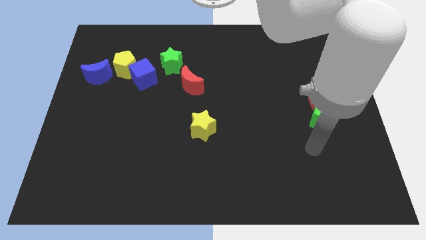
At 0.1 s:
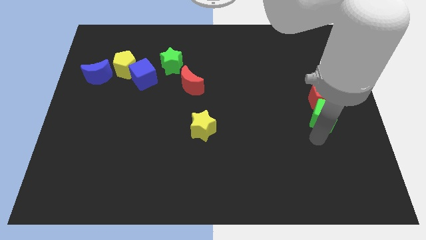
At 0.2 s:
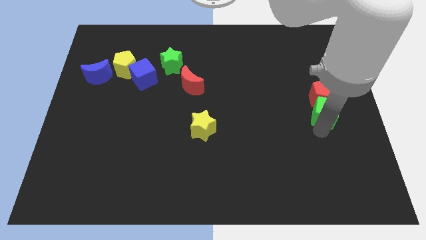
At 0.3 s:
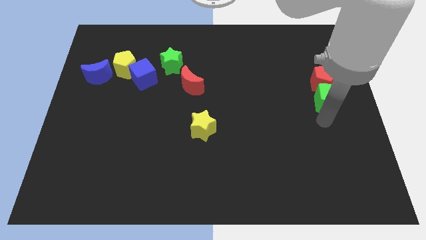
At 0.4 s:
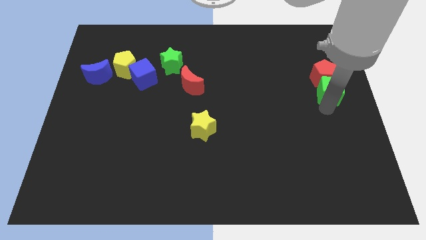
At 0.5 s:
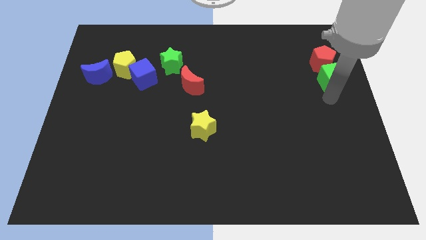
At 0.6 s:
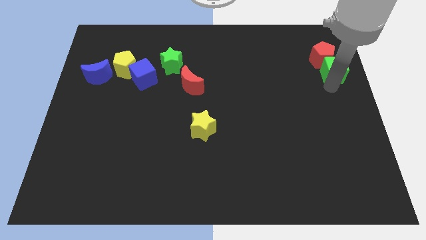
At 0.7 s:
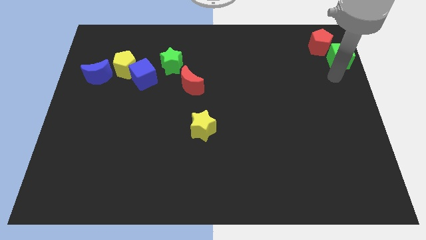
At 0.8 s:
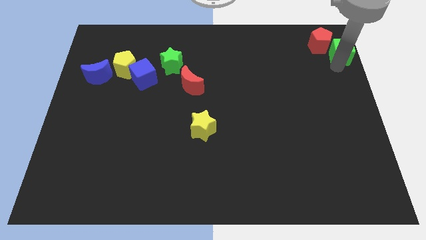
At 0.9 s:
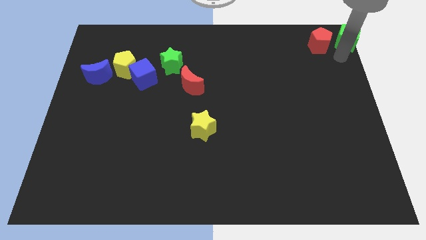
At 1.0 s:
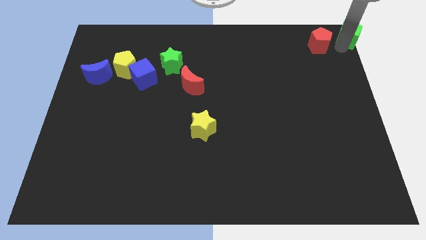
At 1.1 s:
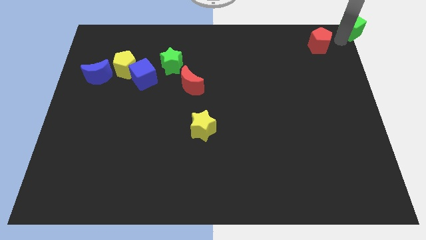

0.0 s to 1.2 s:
move the red pentagon away from the green cube

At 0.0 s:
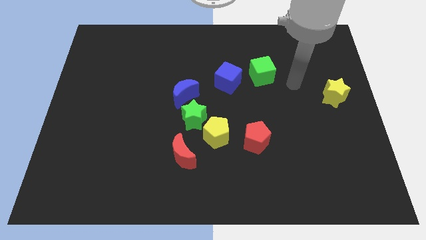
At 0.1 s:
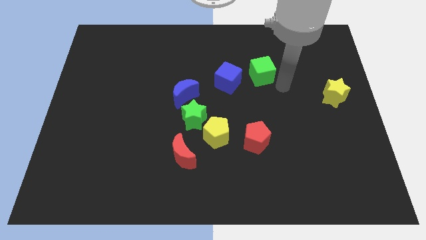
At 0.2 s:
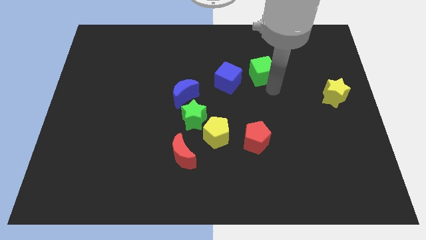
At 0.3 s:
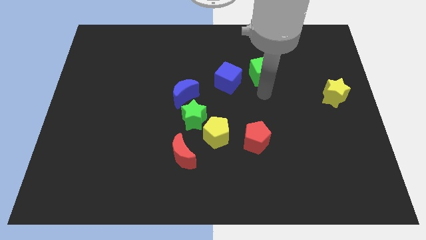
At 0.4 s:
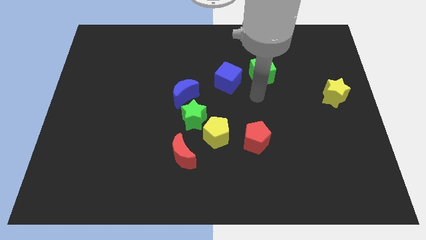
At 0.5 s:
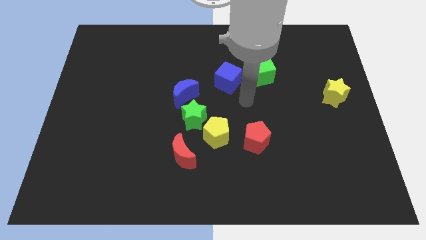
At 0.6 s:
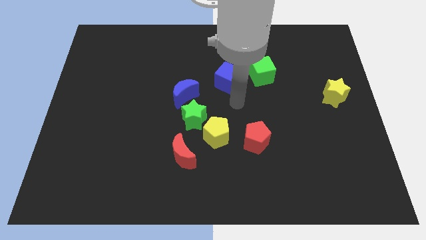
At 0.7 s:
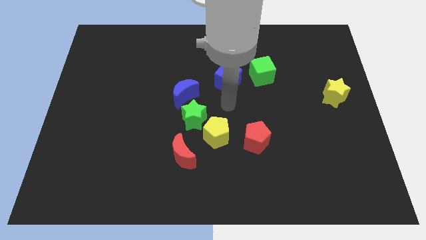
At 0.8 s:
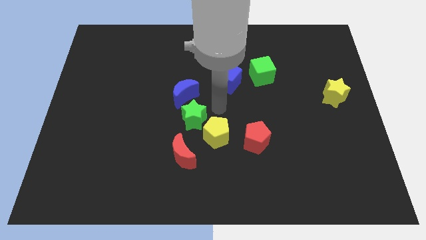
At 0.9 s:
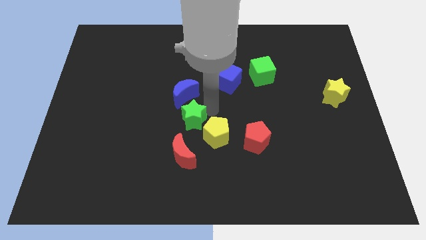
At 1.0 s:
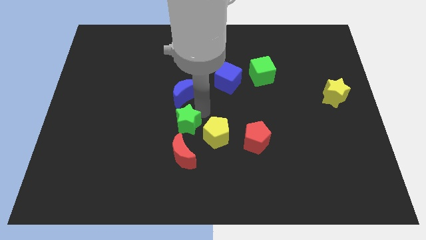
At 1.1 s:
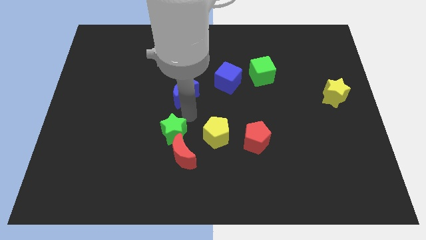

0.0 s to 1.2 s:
separate the blue moon from the green star

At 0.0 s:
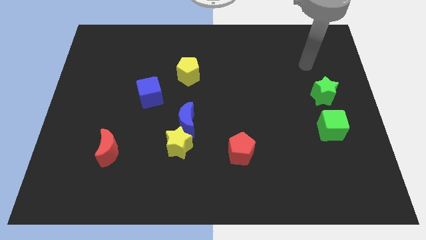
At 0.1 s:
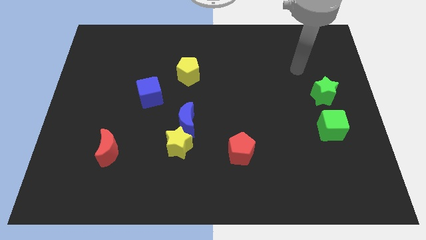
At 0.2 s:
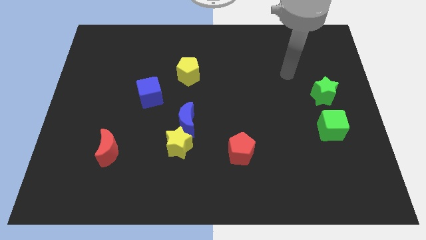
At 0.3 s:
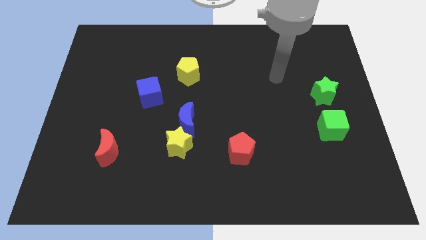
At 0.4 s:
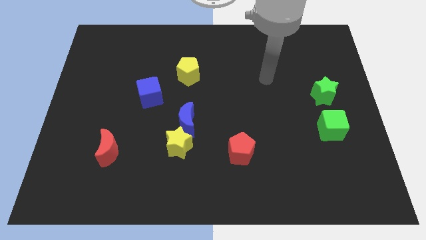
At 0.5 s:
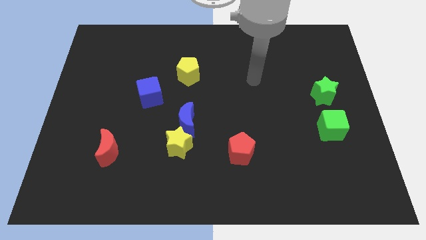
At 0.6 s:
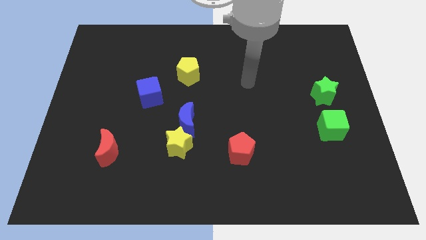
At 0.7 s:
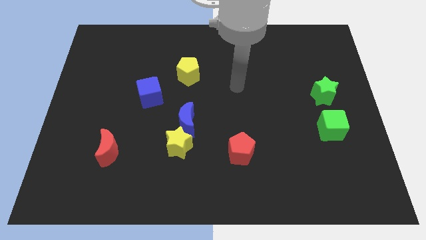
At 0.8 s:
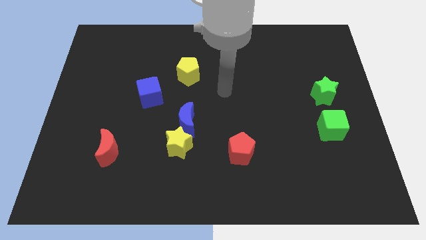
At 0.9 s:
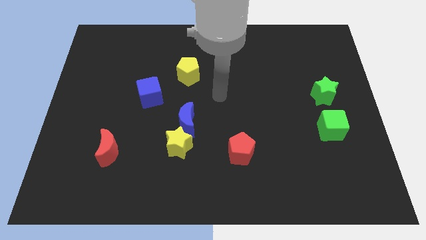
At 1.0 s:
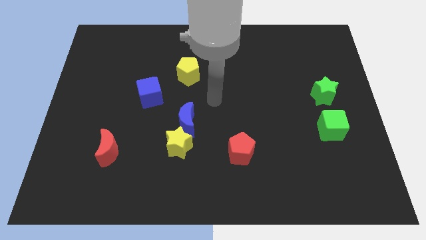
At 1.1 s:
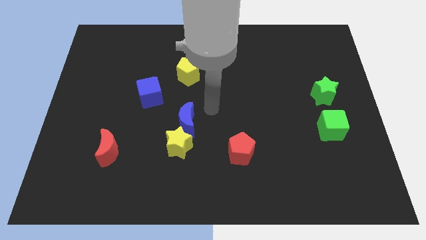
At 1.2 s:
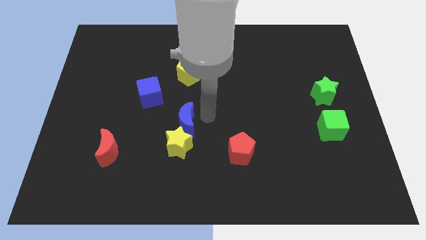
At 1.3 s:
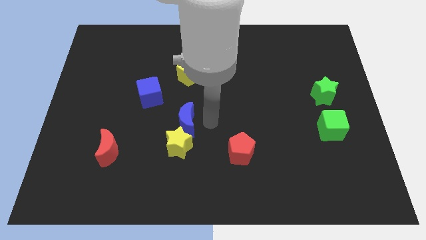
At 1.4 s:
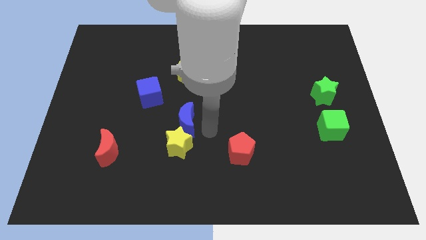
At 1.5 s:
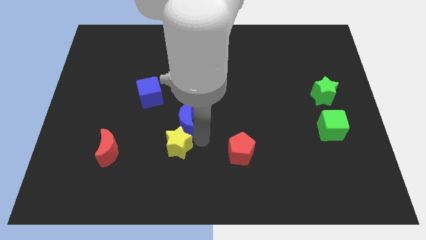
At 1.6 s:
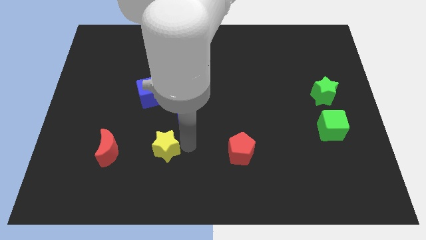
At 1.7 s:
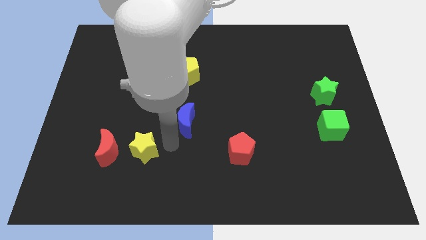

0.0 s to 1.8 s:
separate the blue moon from the yellow star

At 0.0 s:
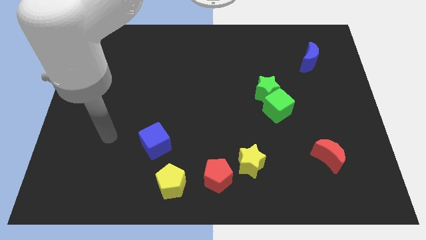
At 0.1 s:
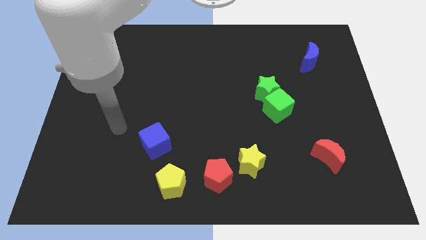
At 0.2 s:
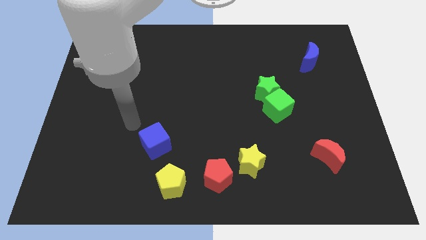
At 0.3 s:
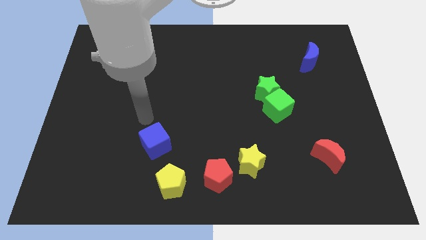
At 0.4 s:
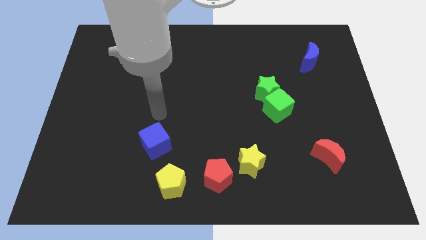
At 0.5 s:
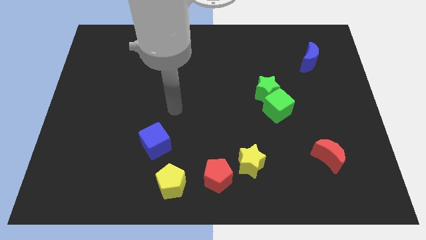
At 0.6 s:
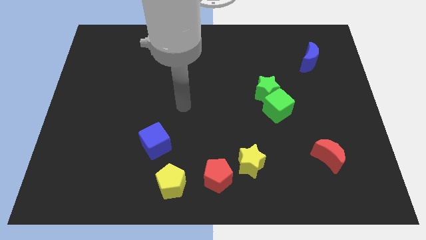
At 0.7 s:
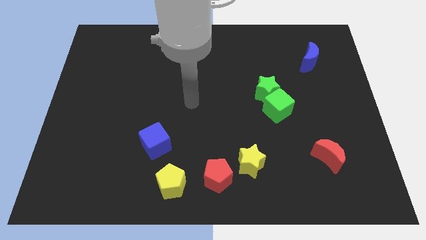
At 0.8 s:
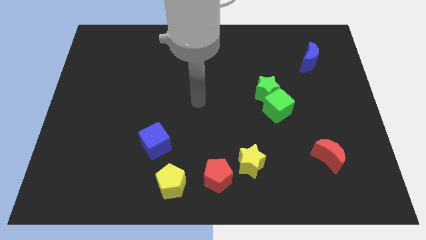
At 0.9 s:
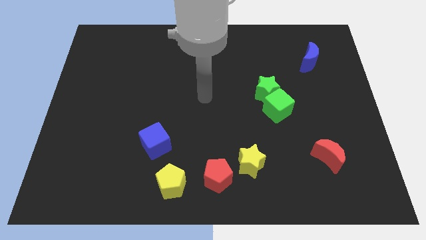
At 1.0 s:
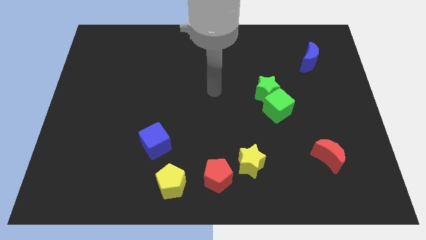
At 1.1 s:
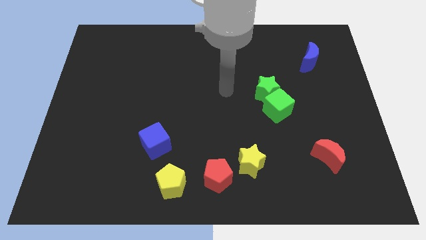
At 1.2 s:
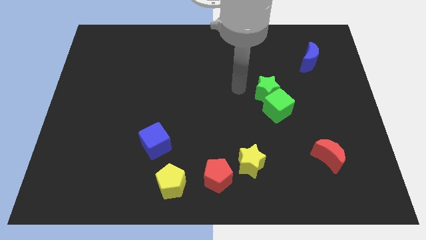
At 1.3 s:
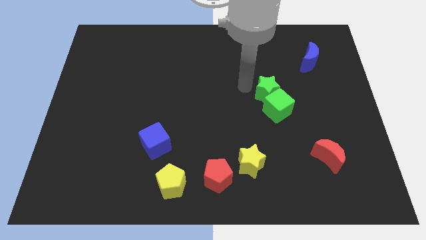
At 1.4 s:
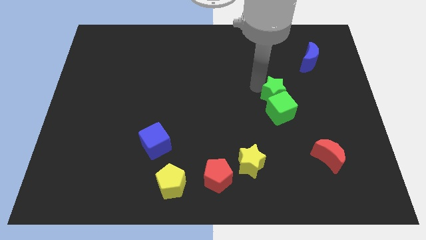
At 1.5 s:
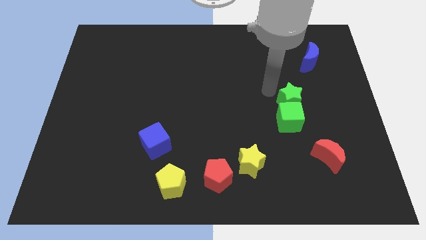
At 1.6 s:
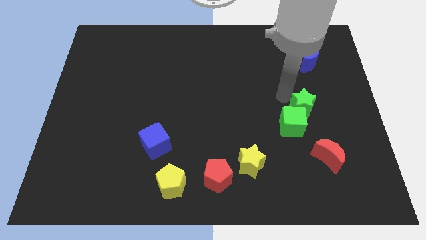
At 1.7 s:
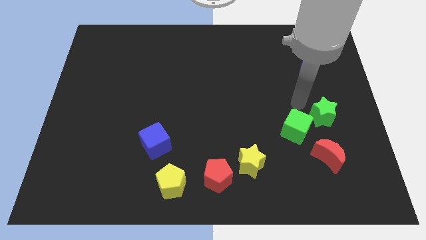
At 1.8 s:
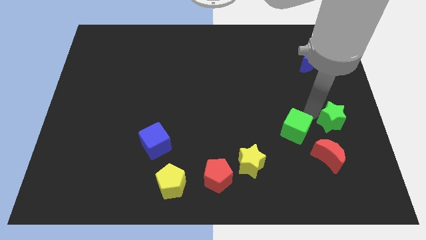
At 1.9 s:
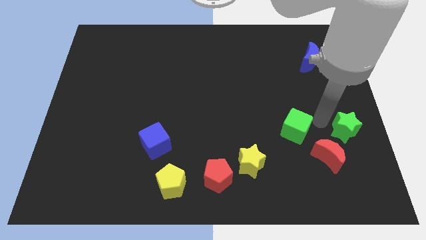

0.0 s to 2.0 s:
move the green cube away from the green star

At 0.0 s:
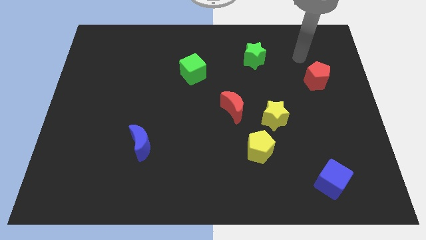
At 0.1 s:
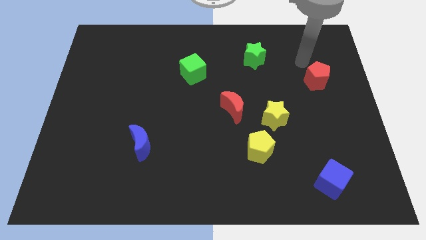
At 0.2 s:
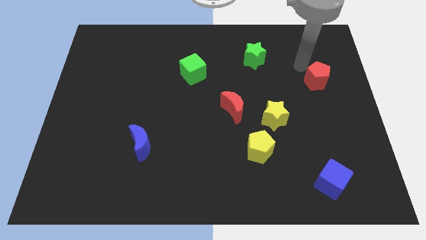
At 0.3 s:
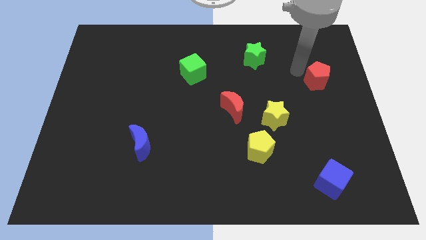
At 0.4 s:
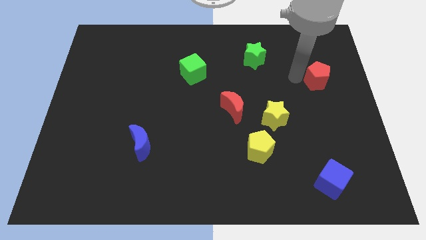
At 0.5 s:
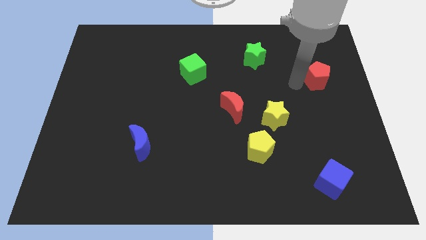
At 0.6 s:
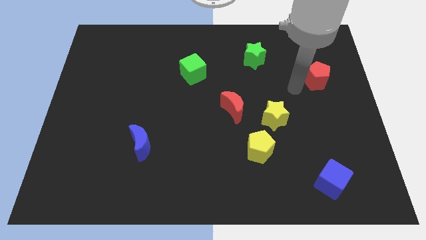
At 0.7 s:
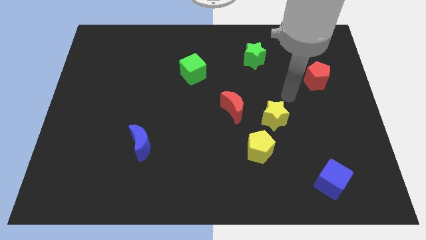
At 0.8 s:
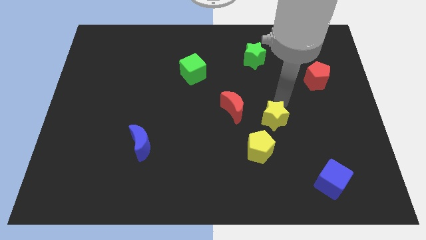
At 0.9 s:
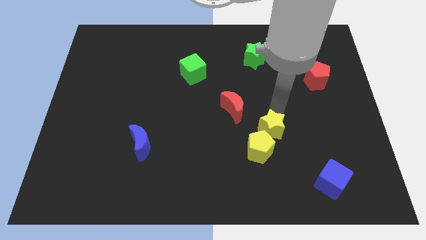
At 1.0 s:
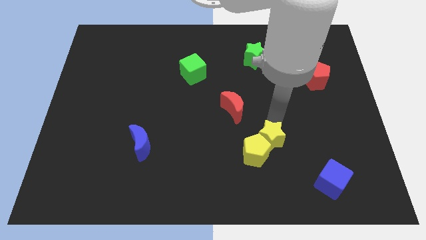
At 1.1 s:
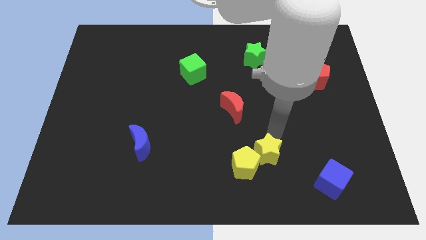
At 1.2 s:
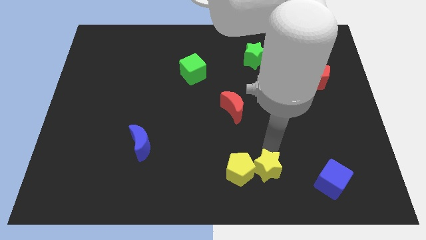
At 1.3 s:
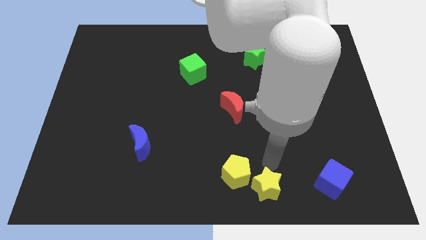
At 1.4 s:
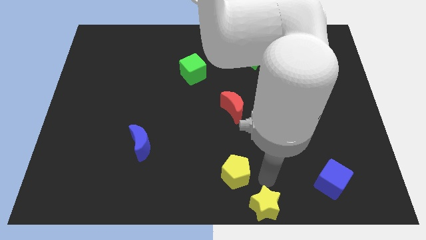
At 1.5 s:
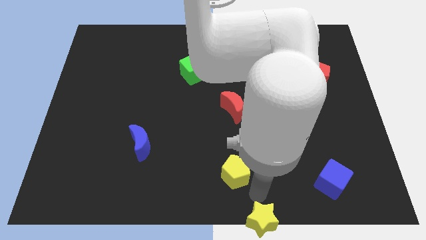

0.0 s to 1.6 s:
move the yellow pentagon away from the yellow star

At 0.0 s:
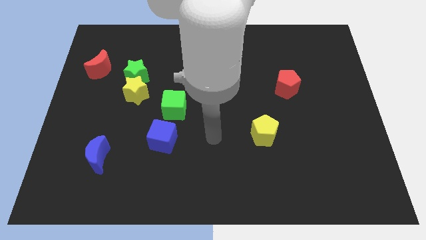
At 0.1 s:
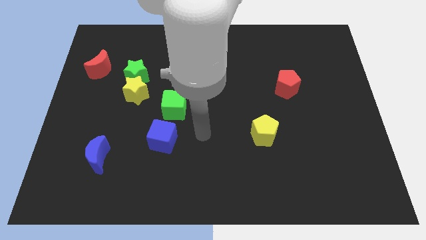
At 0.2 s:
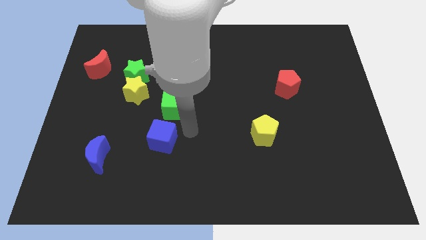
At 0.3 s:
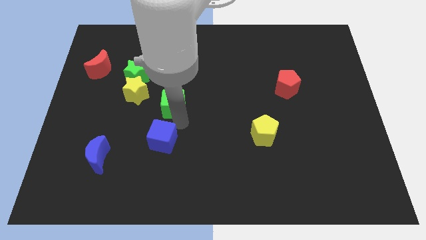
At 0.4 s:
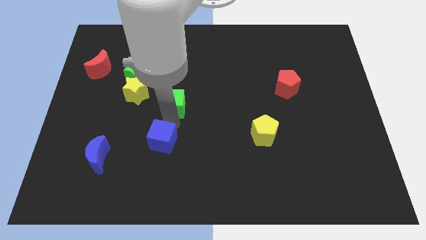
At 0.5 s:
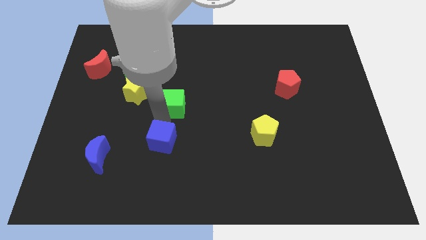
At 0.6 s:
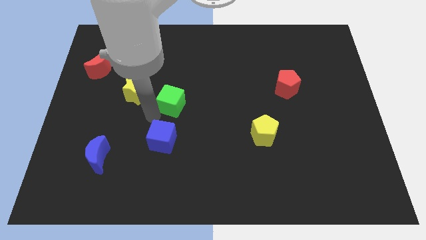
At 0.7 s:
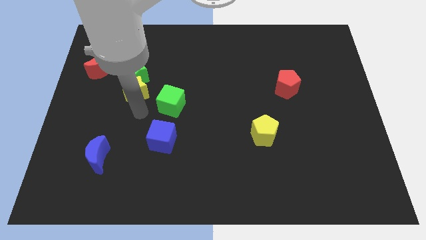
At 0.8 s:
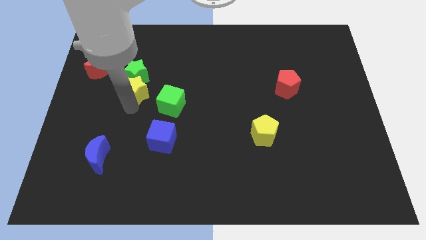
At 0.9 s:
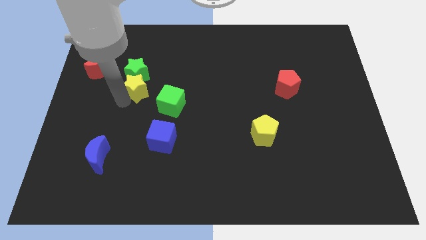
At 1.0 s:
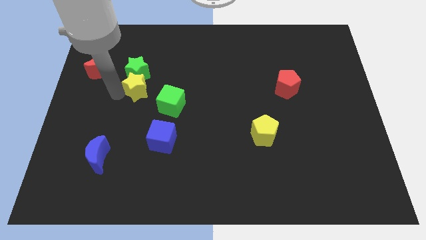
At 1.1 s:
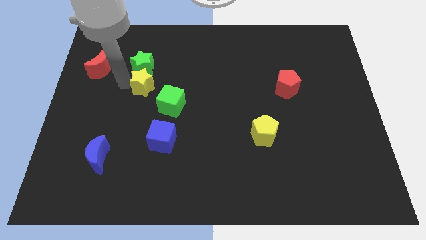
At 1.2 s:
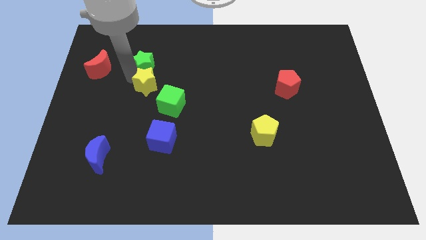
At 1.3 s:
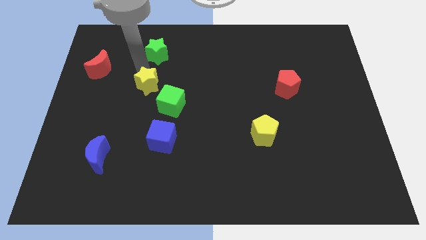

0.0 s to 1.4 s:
move the yellow star away from the green star
